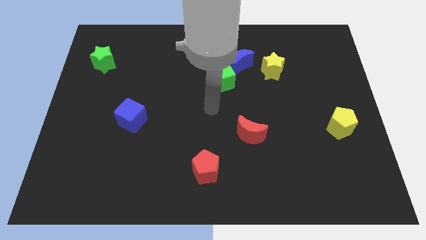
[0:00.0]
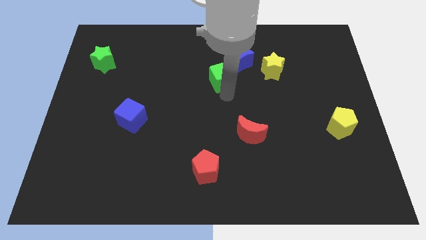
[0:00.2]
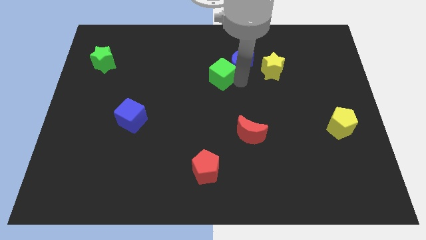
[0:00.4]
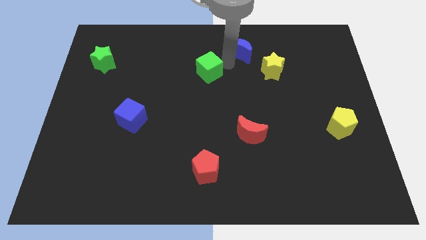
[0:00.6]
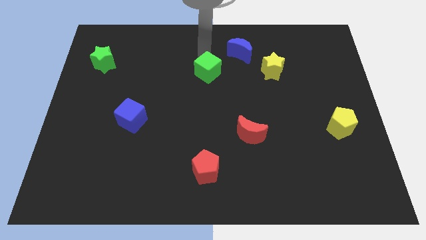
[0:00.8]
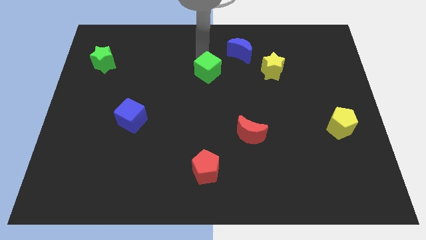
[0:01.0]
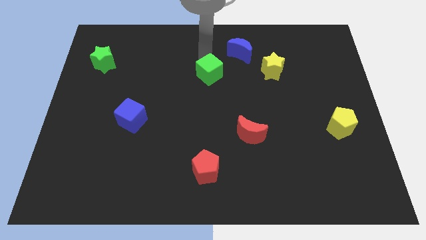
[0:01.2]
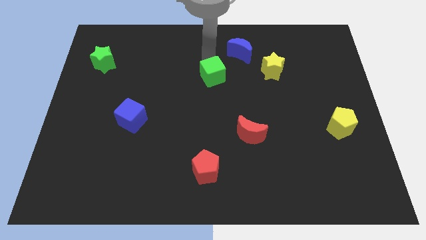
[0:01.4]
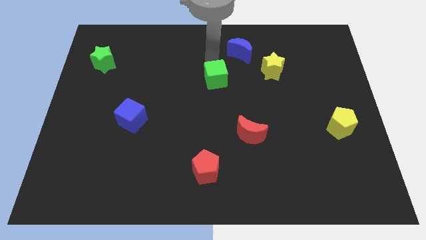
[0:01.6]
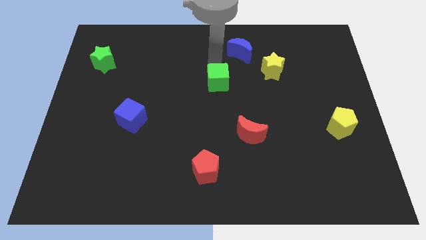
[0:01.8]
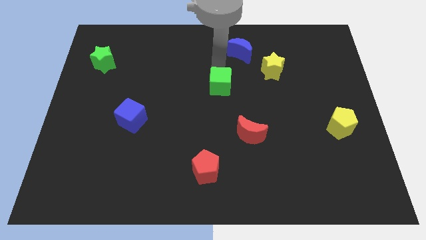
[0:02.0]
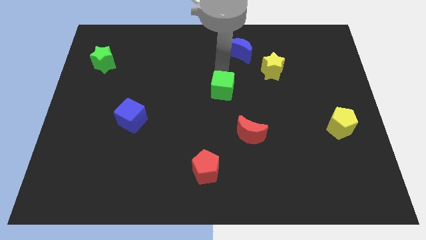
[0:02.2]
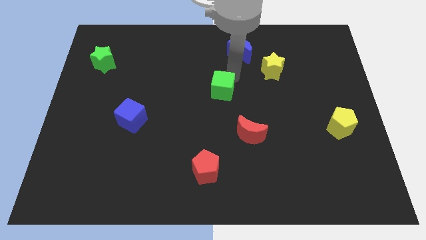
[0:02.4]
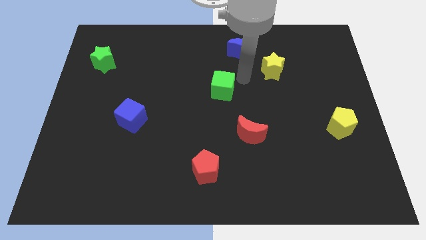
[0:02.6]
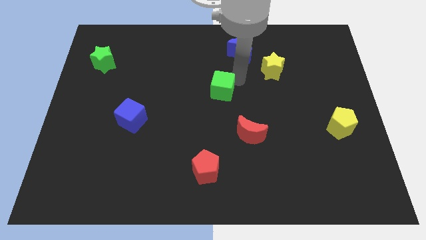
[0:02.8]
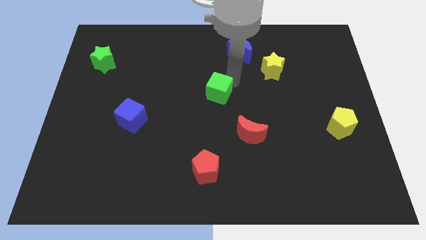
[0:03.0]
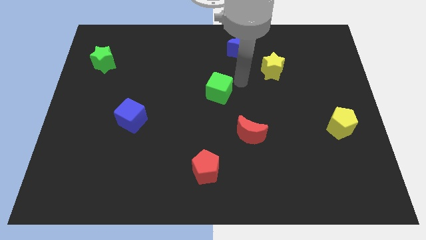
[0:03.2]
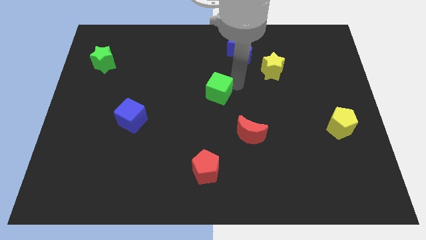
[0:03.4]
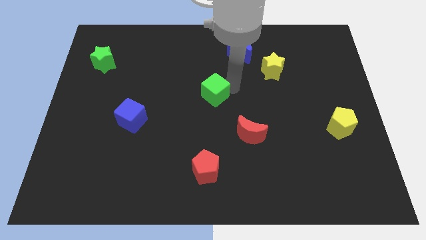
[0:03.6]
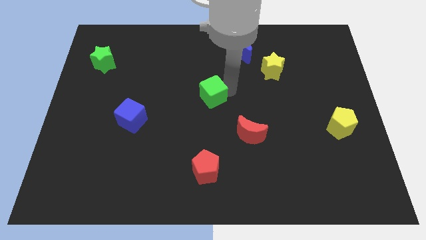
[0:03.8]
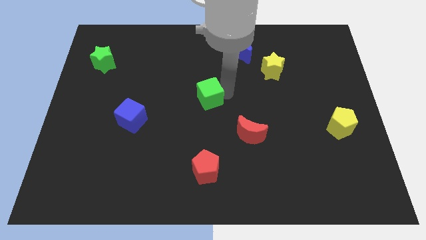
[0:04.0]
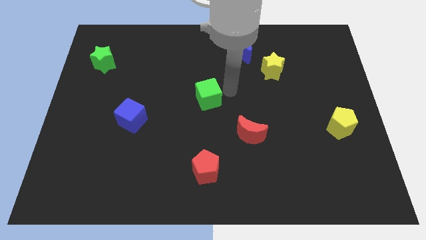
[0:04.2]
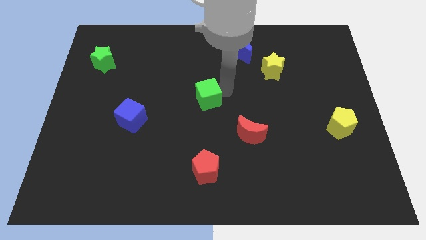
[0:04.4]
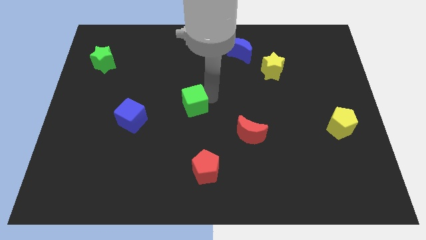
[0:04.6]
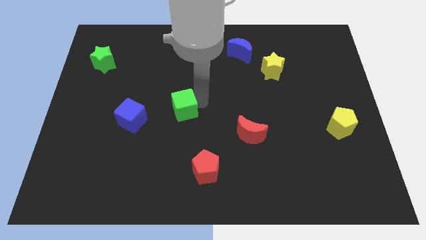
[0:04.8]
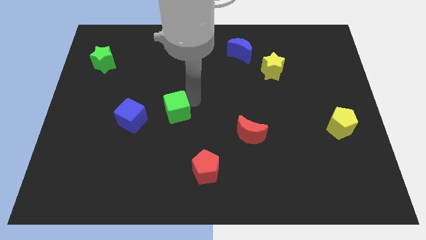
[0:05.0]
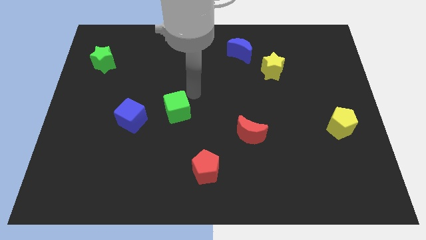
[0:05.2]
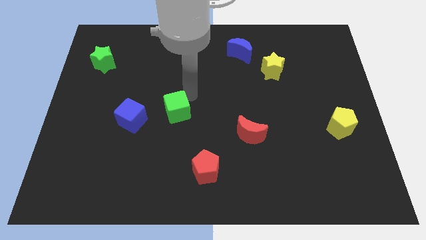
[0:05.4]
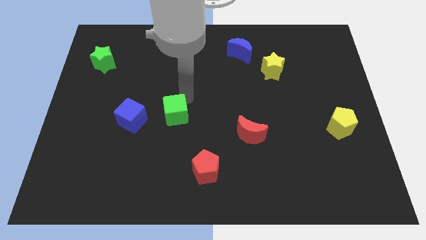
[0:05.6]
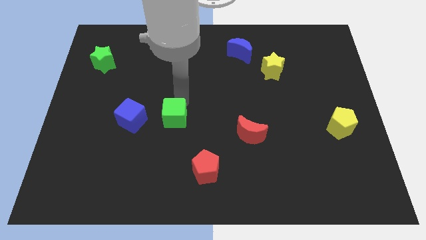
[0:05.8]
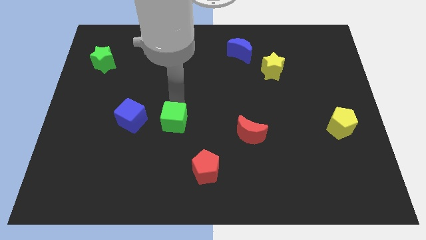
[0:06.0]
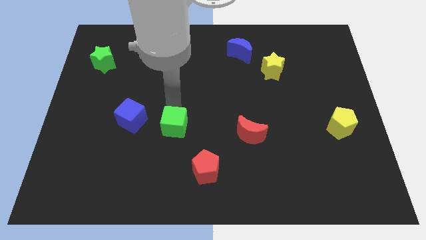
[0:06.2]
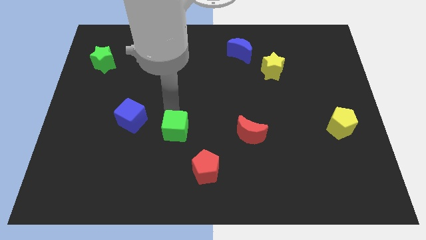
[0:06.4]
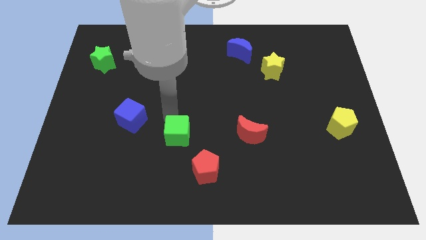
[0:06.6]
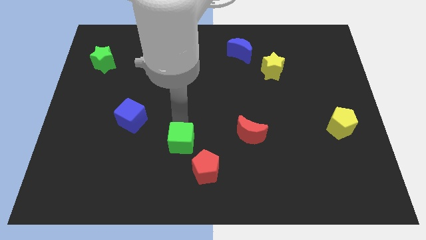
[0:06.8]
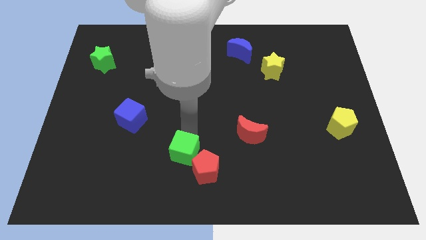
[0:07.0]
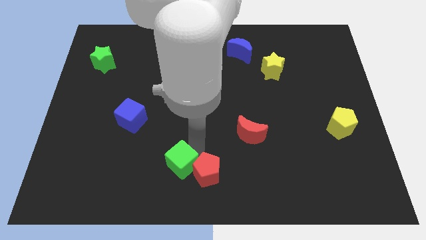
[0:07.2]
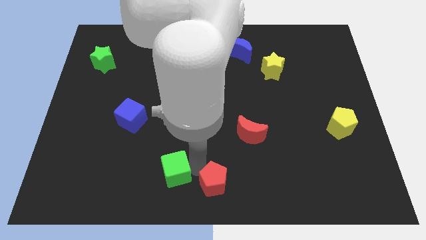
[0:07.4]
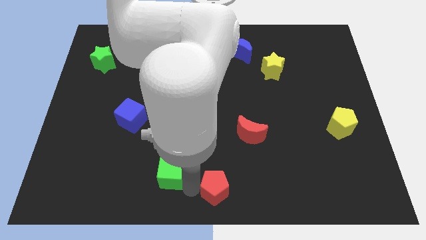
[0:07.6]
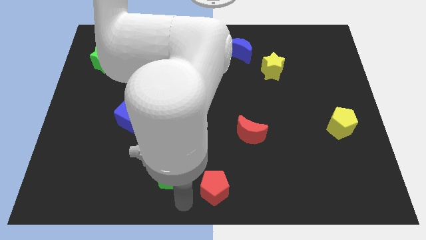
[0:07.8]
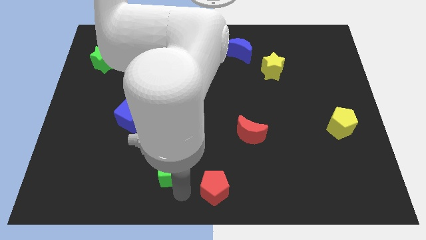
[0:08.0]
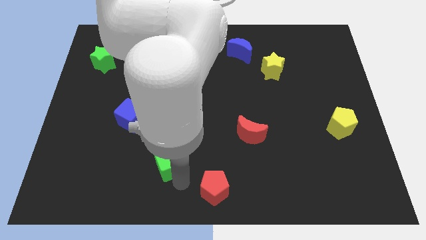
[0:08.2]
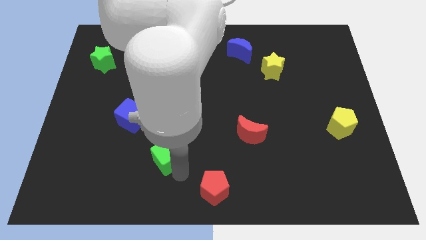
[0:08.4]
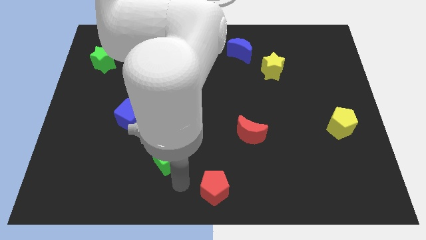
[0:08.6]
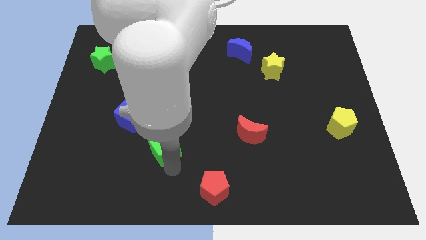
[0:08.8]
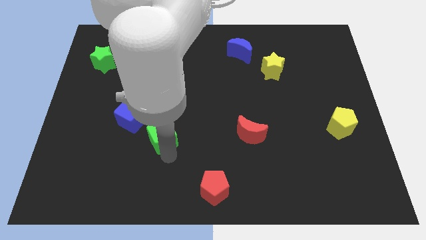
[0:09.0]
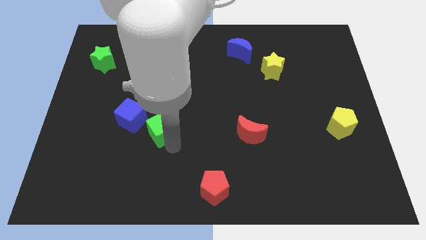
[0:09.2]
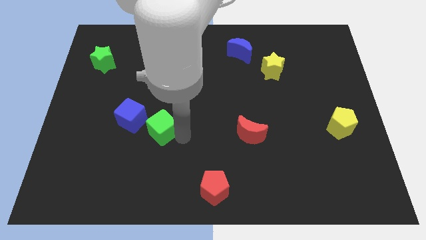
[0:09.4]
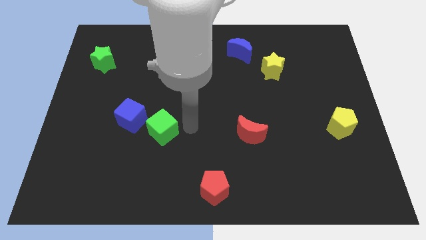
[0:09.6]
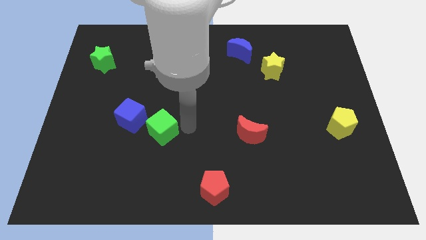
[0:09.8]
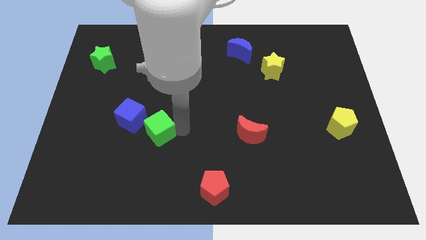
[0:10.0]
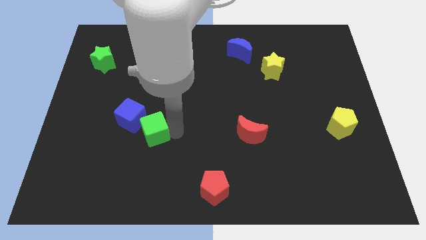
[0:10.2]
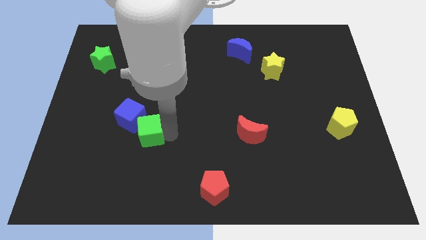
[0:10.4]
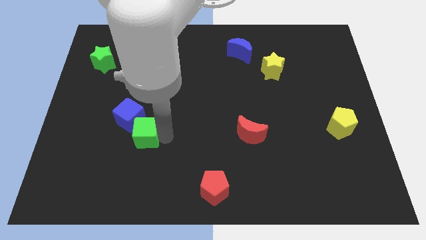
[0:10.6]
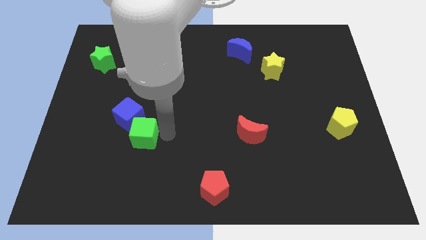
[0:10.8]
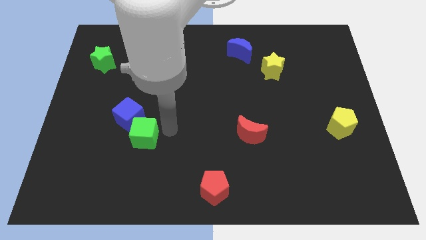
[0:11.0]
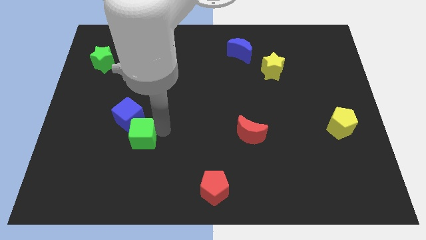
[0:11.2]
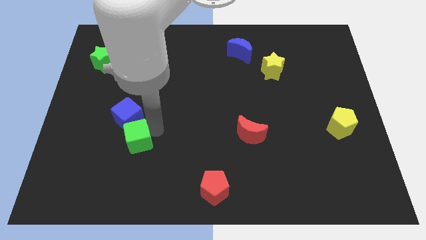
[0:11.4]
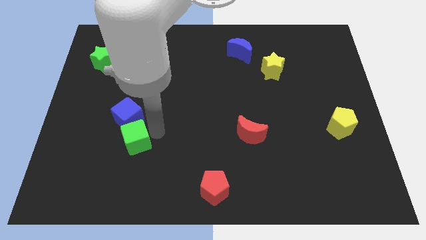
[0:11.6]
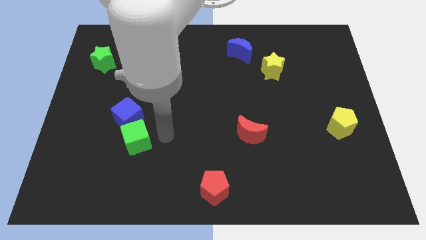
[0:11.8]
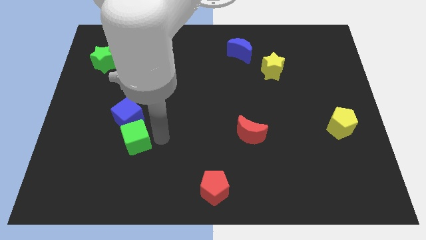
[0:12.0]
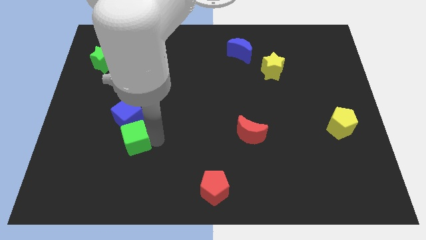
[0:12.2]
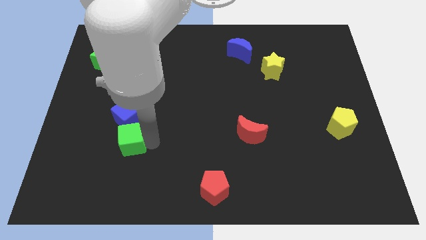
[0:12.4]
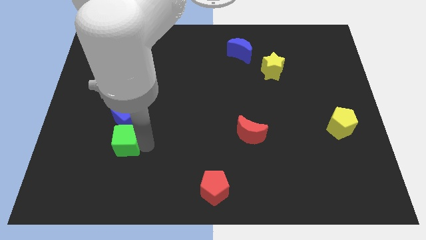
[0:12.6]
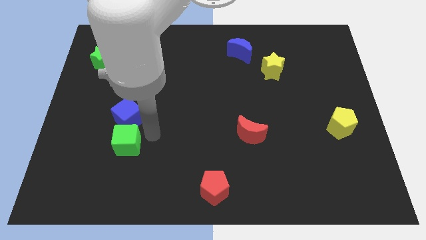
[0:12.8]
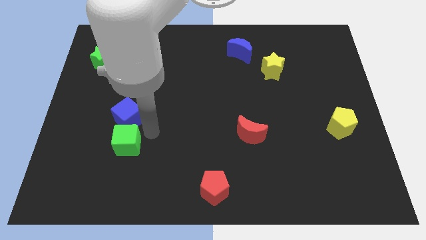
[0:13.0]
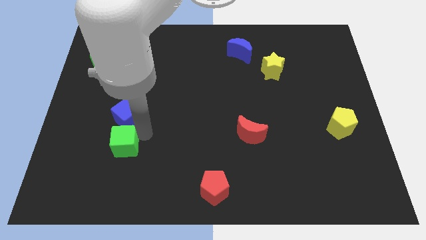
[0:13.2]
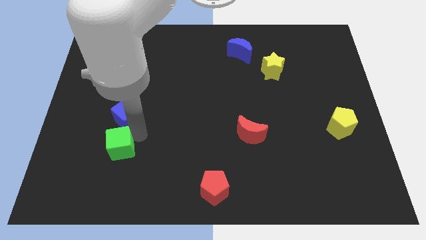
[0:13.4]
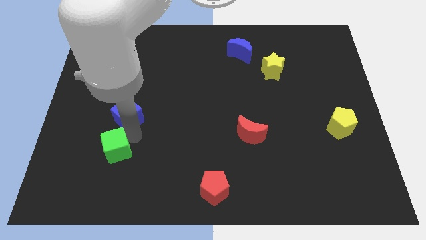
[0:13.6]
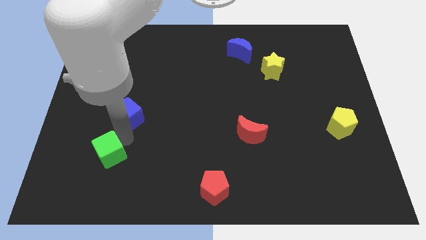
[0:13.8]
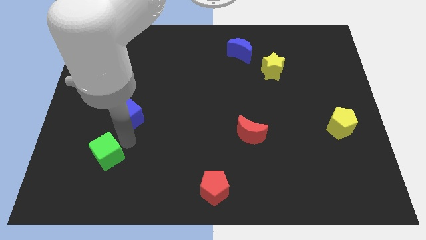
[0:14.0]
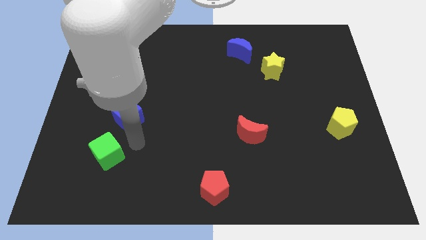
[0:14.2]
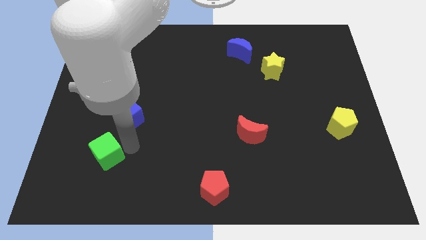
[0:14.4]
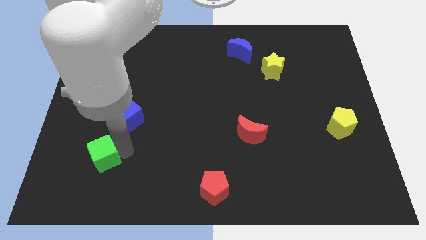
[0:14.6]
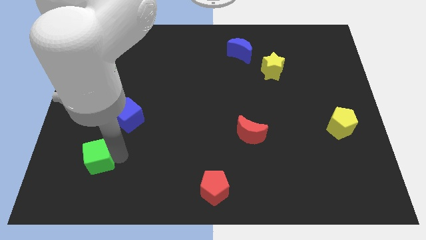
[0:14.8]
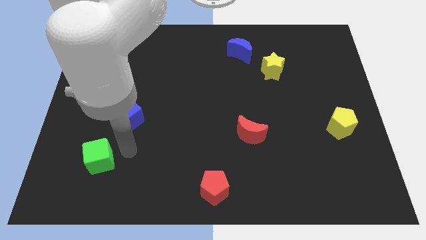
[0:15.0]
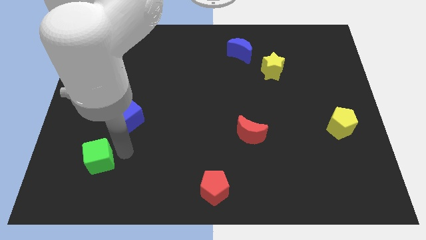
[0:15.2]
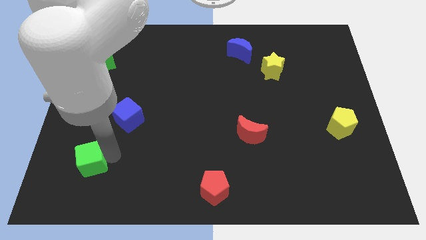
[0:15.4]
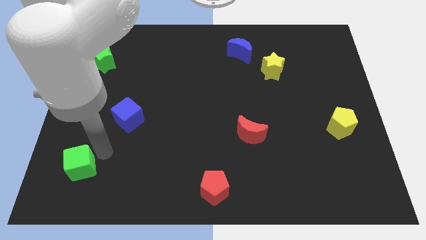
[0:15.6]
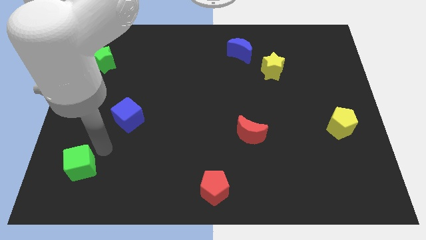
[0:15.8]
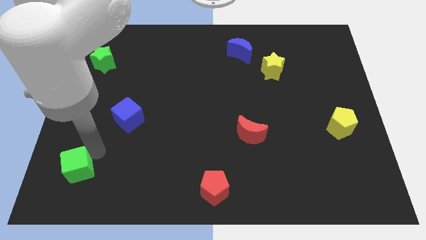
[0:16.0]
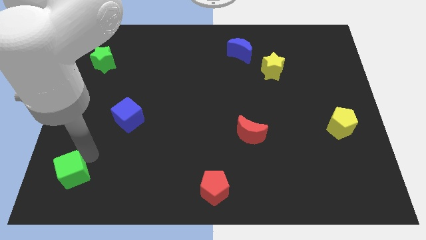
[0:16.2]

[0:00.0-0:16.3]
put the green cube to the bottom left
